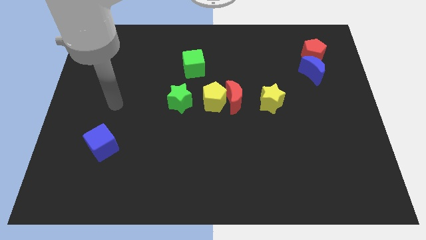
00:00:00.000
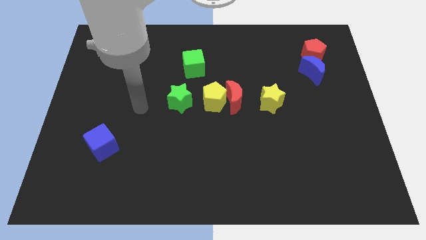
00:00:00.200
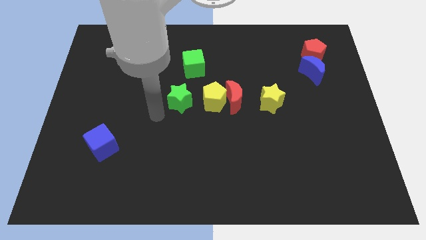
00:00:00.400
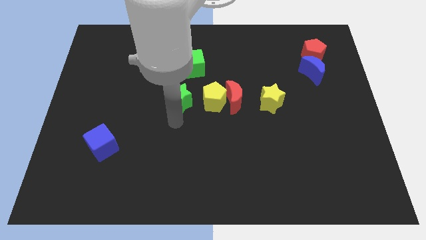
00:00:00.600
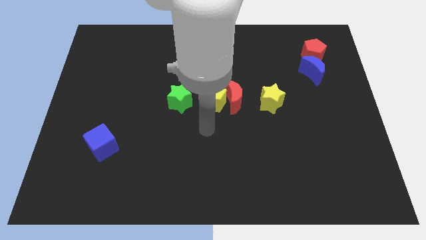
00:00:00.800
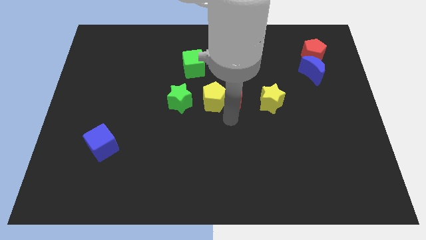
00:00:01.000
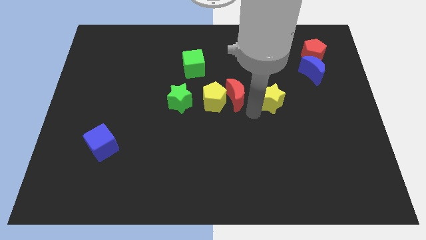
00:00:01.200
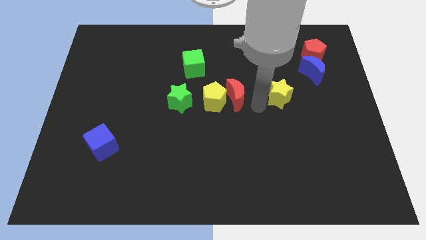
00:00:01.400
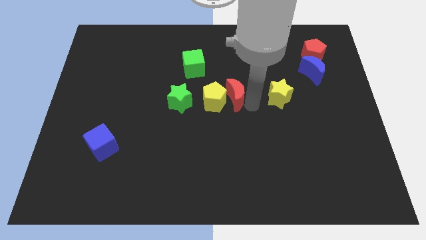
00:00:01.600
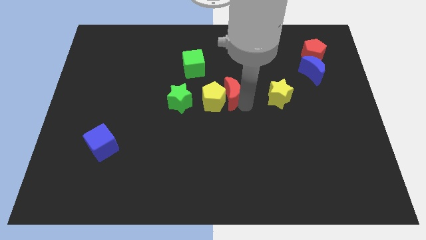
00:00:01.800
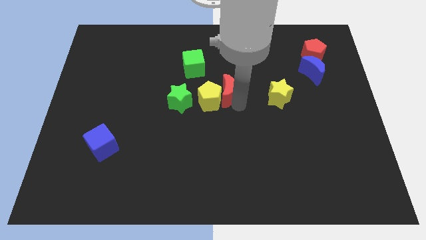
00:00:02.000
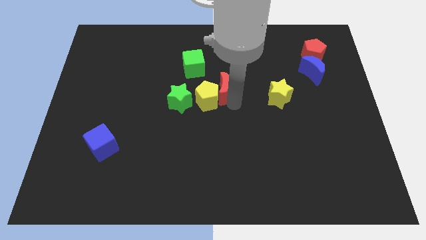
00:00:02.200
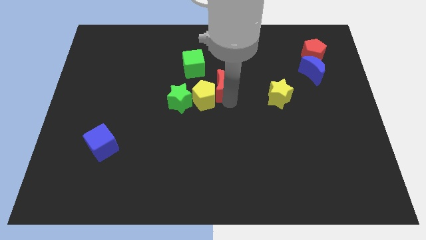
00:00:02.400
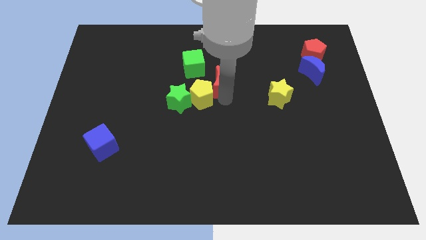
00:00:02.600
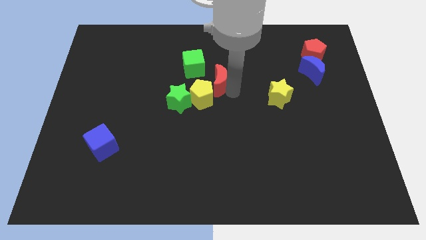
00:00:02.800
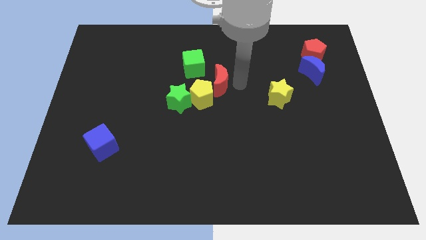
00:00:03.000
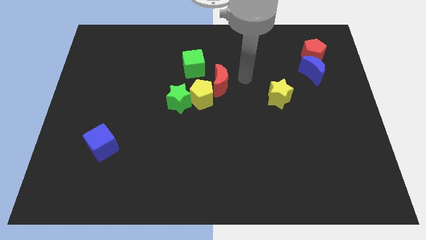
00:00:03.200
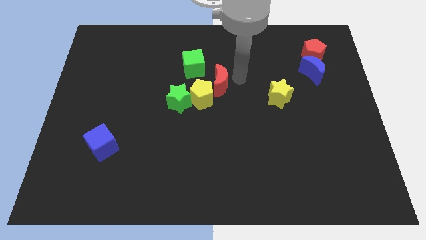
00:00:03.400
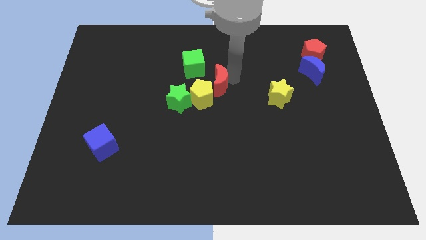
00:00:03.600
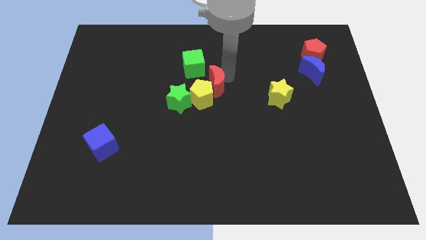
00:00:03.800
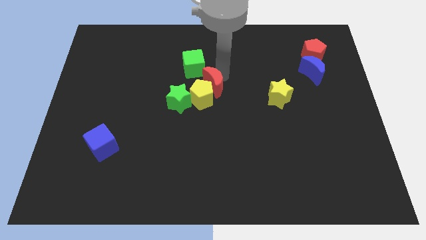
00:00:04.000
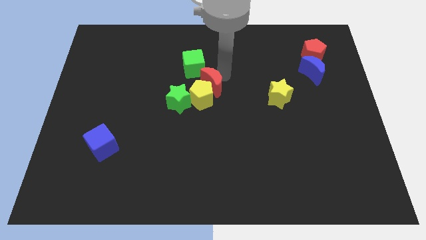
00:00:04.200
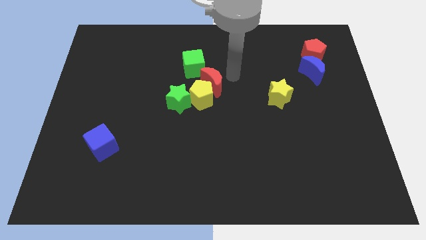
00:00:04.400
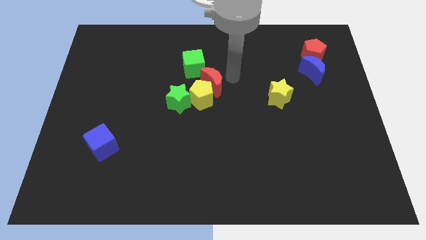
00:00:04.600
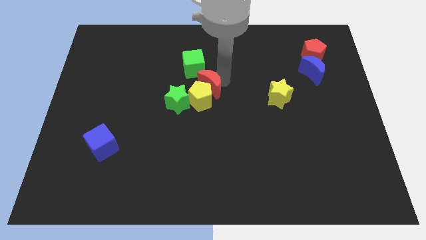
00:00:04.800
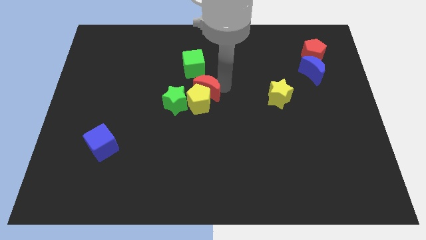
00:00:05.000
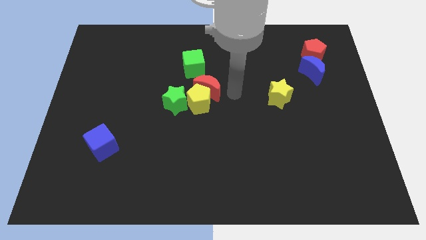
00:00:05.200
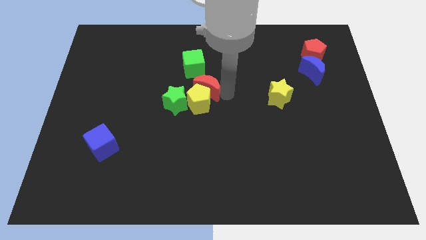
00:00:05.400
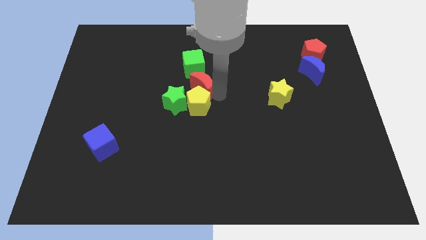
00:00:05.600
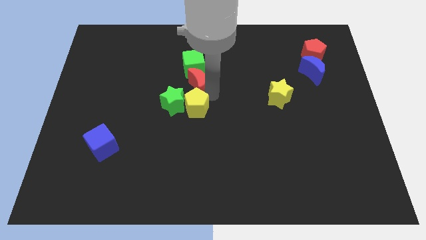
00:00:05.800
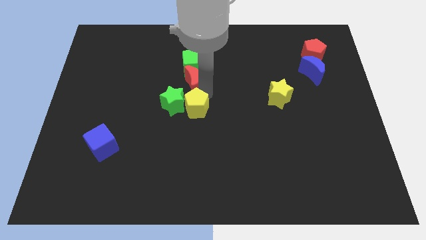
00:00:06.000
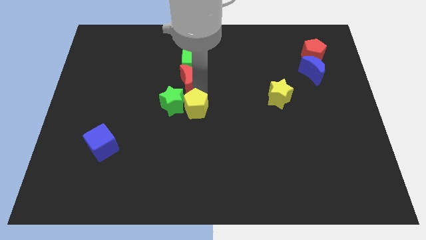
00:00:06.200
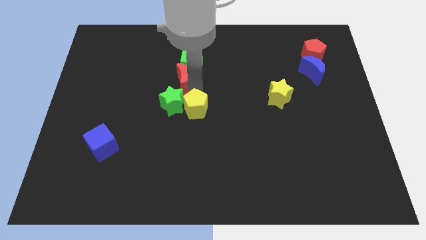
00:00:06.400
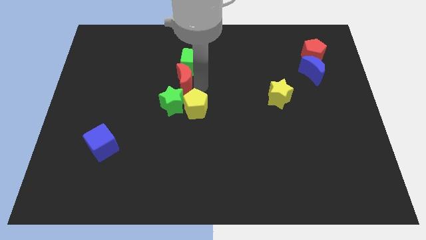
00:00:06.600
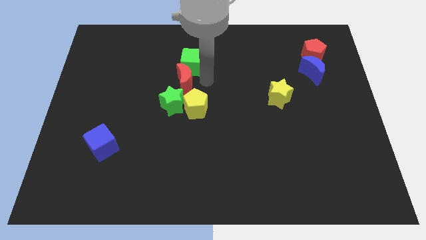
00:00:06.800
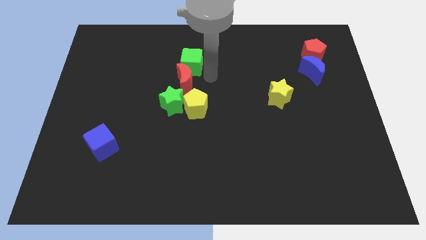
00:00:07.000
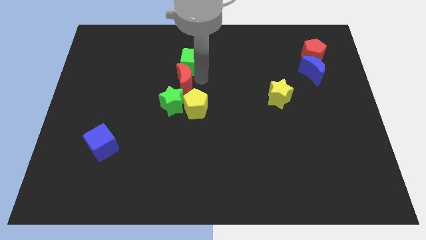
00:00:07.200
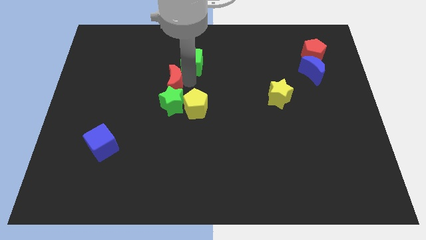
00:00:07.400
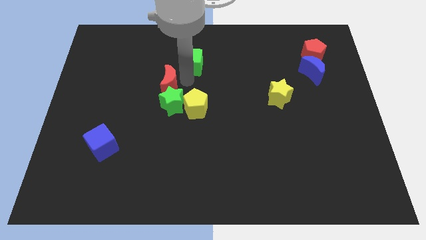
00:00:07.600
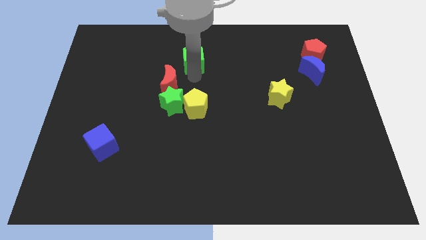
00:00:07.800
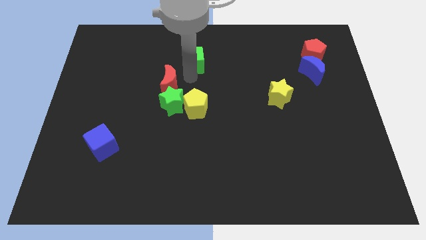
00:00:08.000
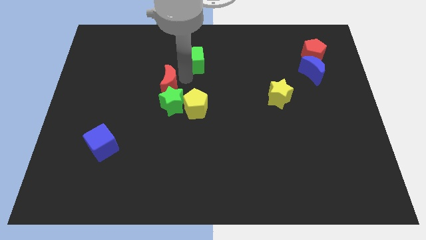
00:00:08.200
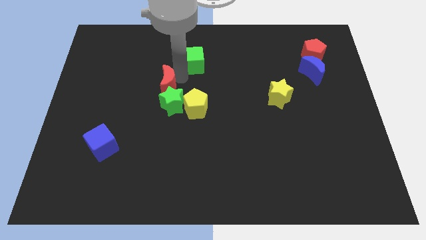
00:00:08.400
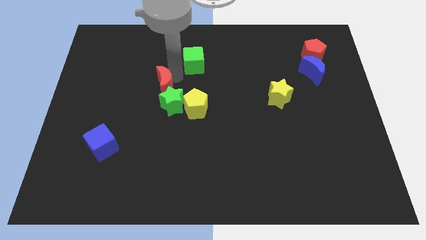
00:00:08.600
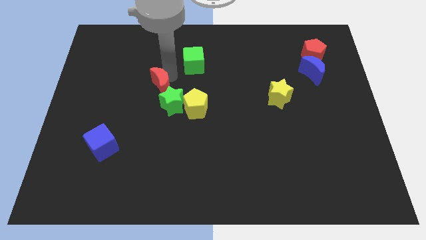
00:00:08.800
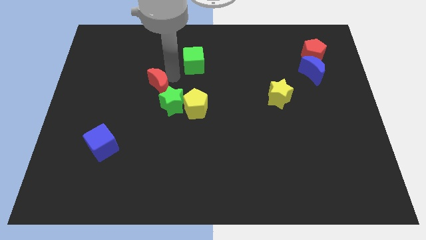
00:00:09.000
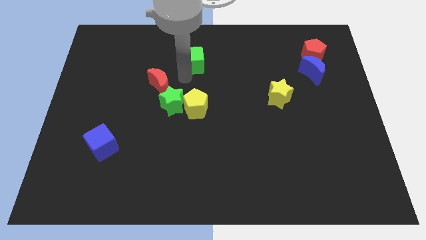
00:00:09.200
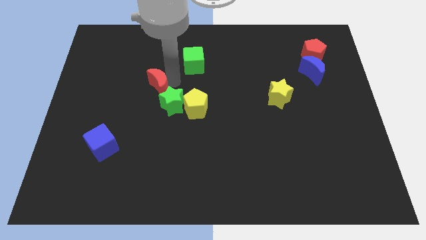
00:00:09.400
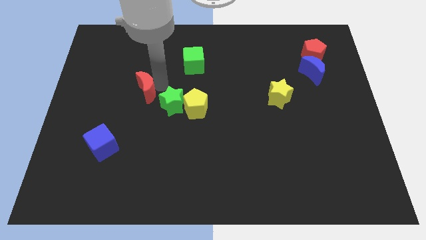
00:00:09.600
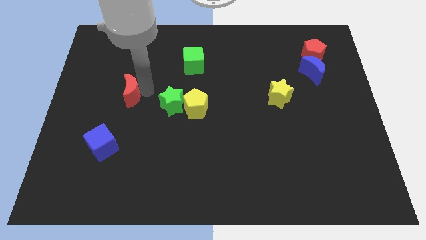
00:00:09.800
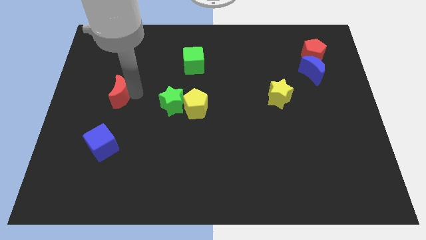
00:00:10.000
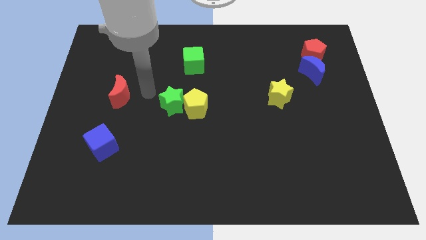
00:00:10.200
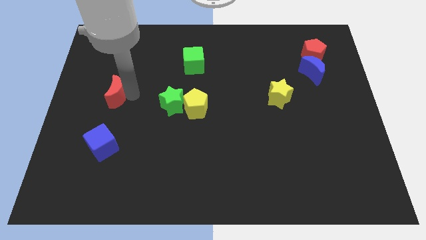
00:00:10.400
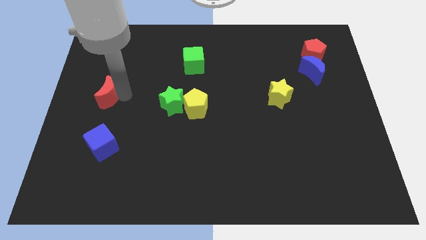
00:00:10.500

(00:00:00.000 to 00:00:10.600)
slide the red moon to the left side of the board
